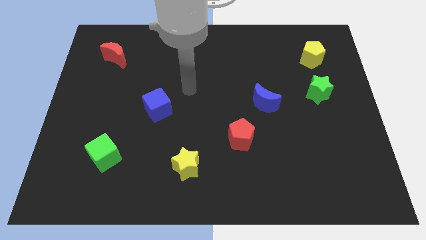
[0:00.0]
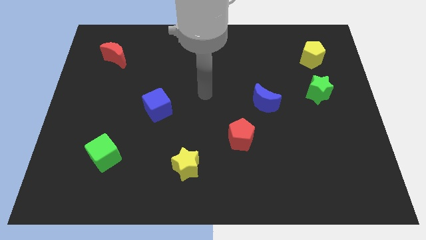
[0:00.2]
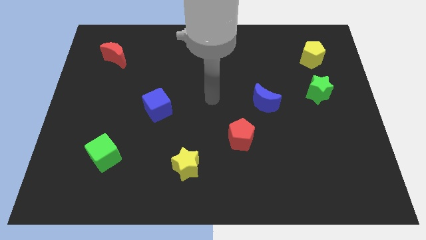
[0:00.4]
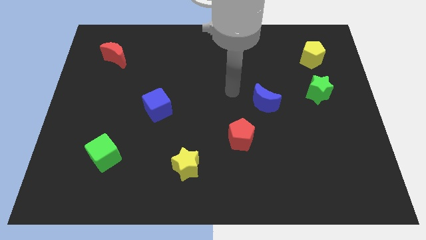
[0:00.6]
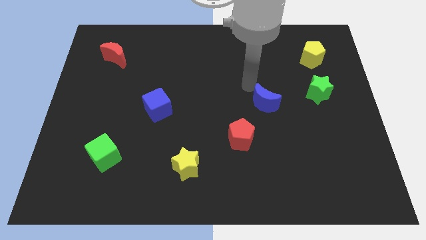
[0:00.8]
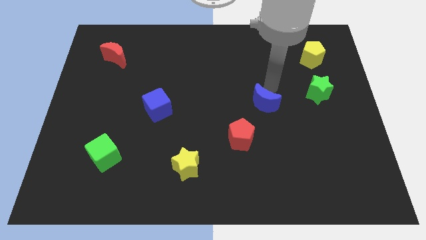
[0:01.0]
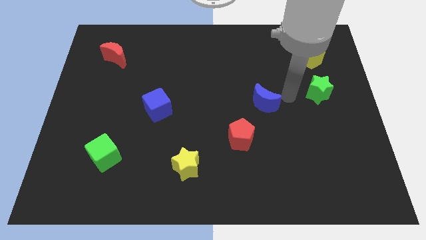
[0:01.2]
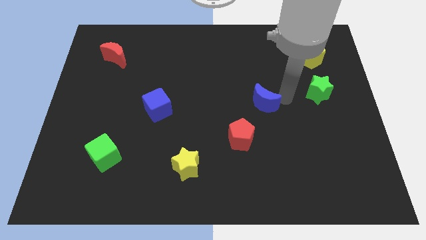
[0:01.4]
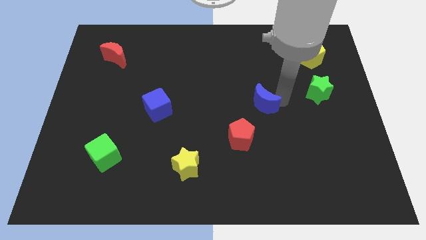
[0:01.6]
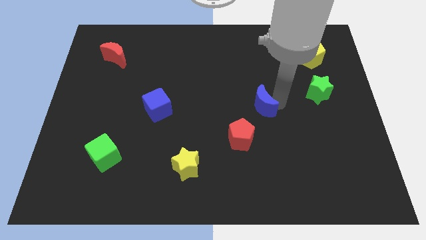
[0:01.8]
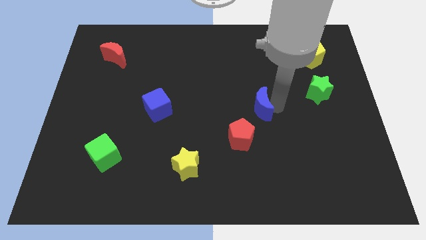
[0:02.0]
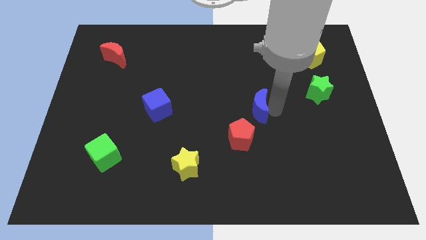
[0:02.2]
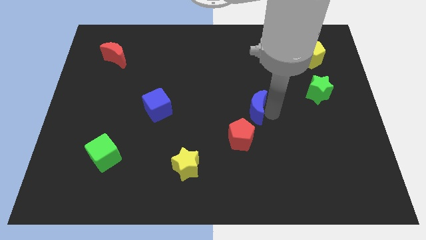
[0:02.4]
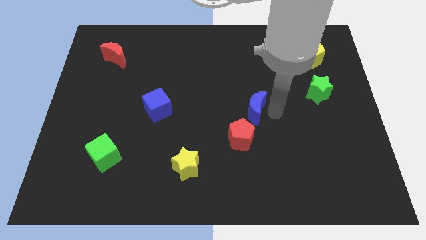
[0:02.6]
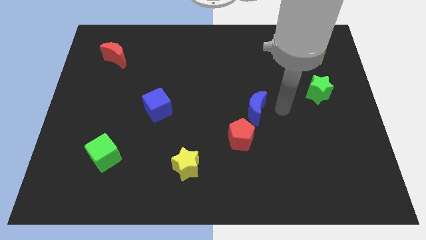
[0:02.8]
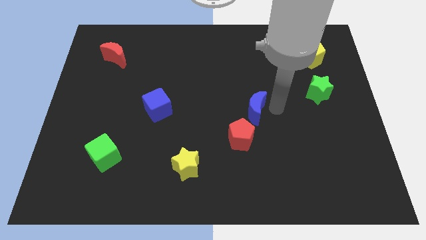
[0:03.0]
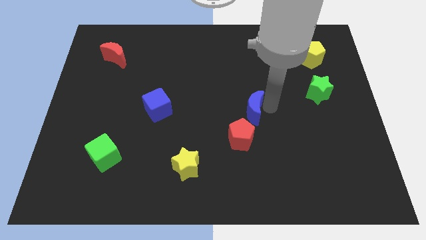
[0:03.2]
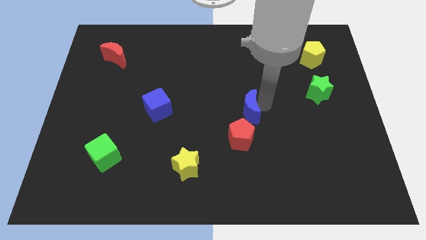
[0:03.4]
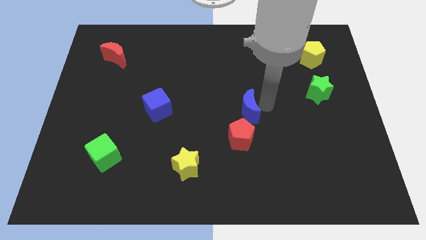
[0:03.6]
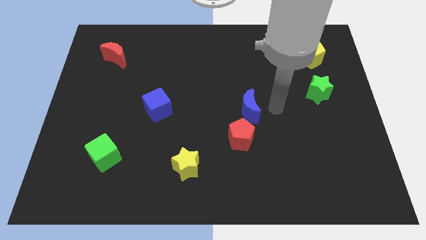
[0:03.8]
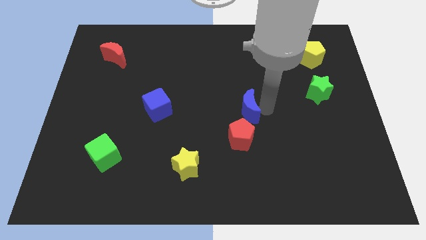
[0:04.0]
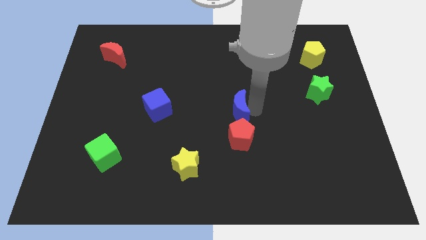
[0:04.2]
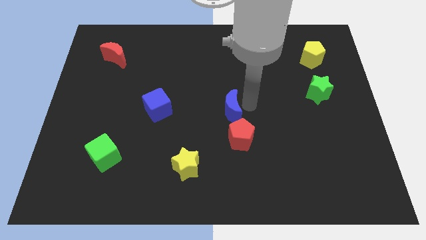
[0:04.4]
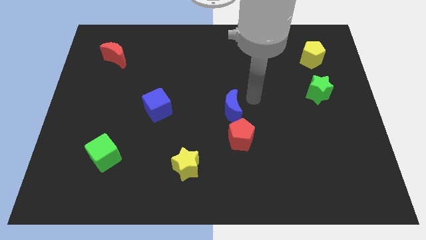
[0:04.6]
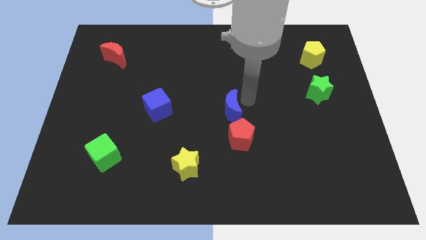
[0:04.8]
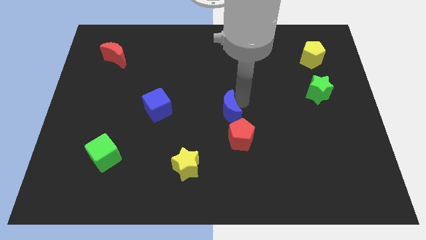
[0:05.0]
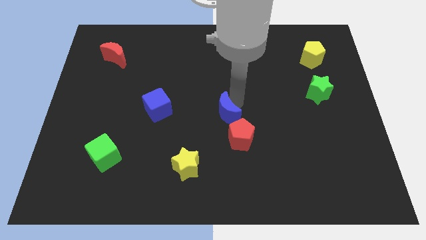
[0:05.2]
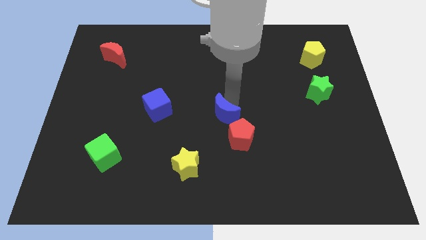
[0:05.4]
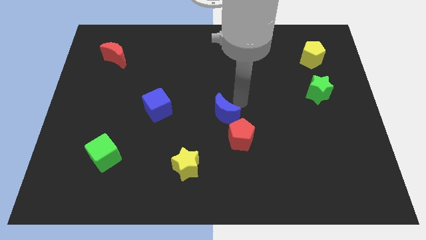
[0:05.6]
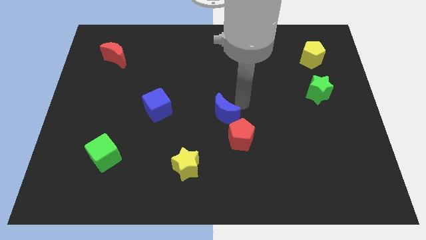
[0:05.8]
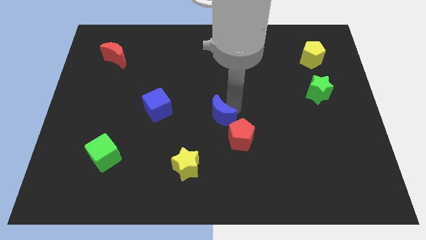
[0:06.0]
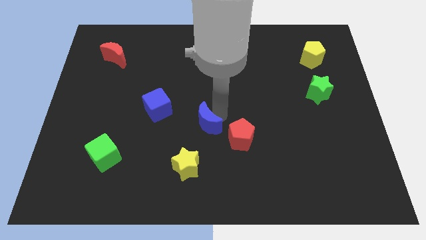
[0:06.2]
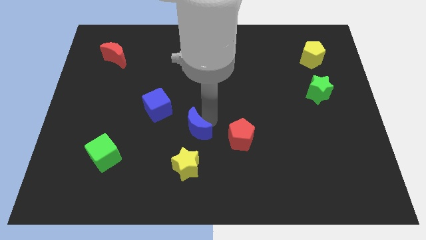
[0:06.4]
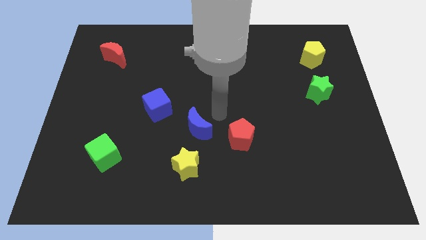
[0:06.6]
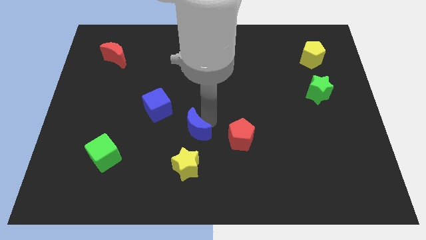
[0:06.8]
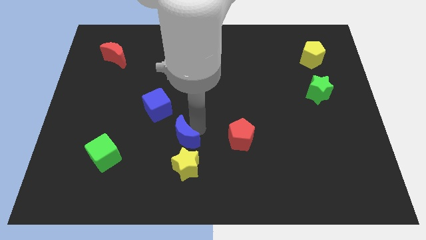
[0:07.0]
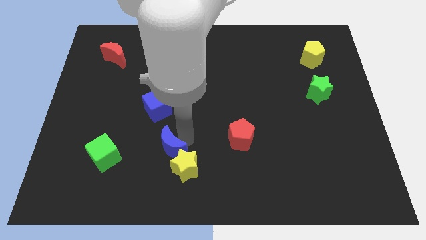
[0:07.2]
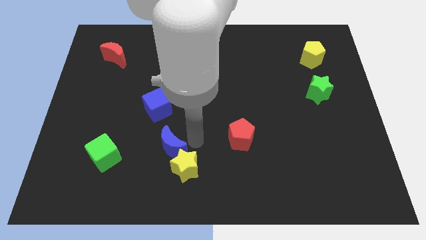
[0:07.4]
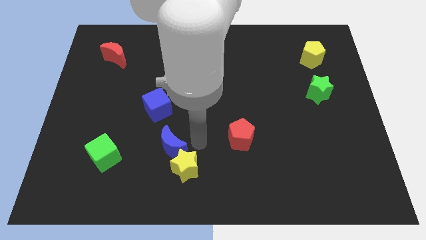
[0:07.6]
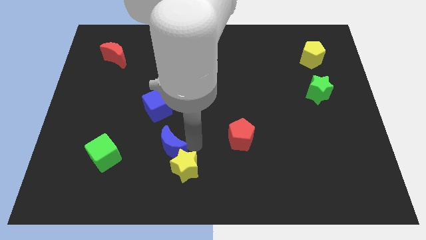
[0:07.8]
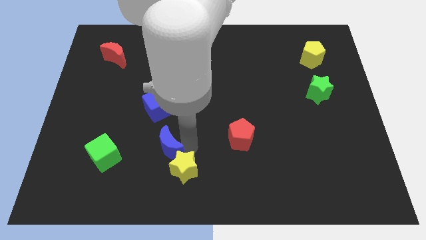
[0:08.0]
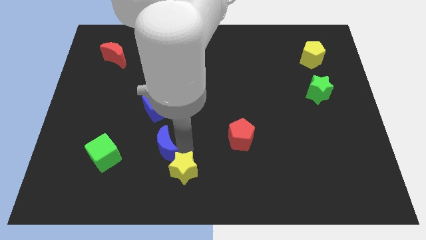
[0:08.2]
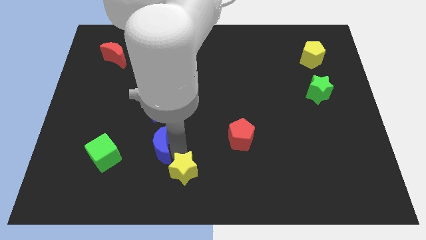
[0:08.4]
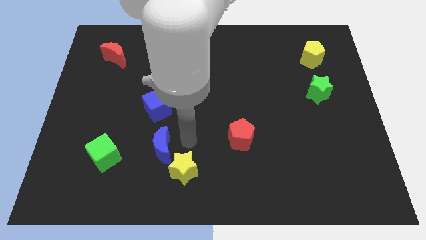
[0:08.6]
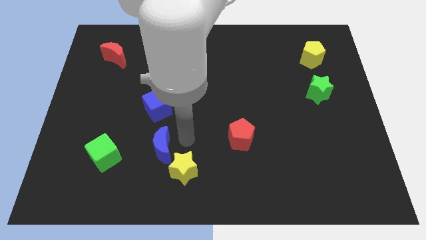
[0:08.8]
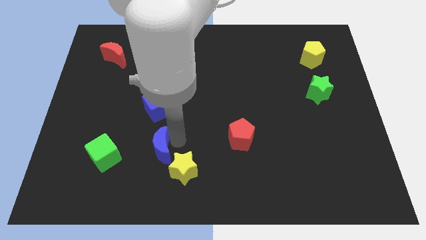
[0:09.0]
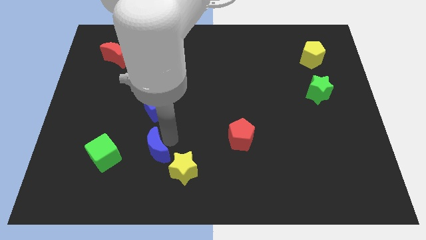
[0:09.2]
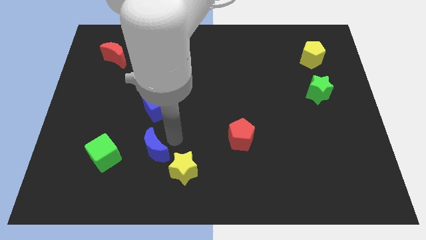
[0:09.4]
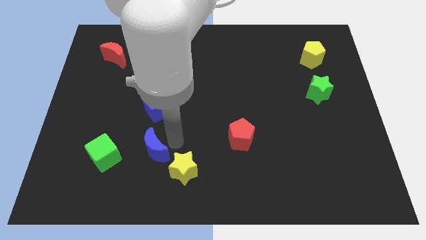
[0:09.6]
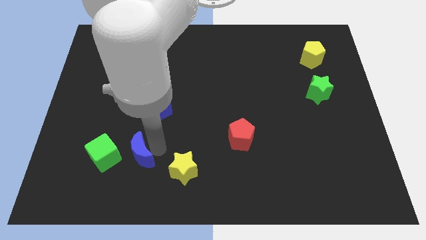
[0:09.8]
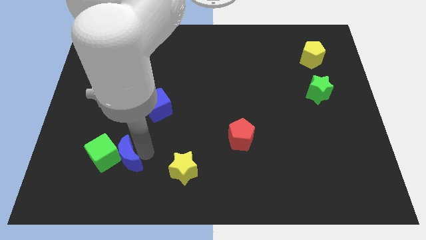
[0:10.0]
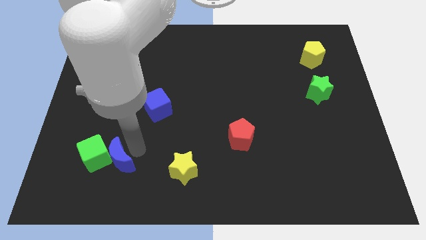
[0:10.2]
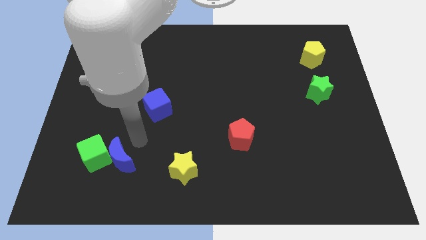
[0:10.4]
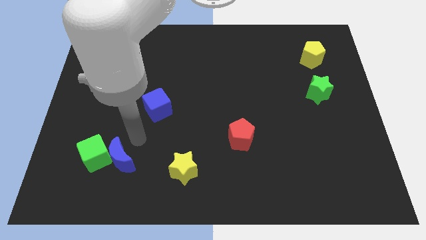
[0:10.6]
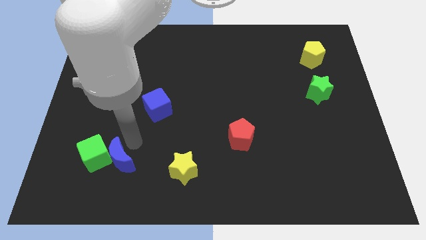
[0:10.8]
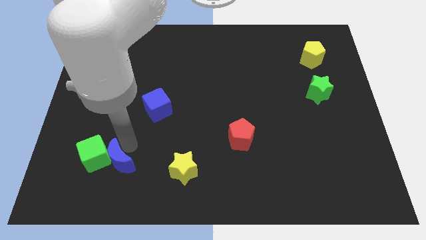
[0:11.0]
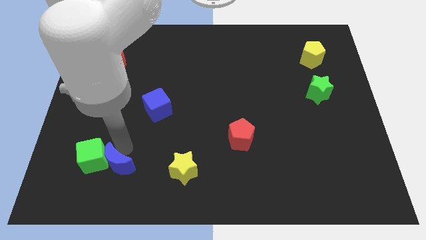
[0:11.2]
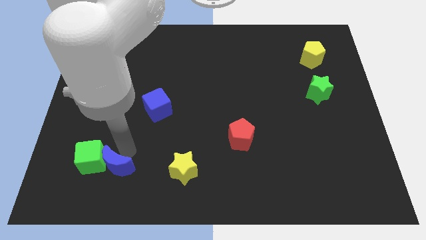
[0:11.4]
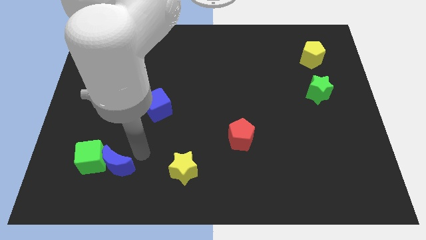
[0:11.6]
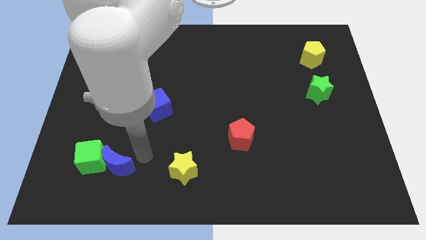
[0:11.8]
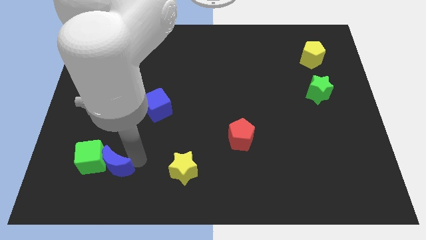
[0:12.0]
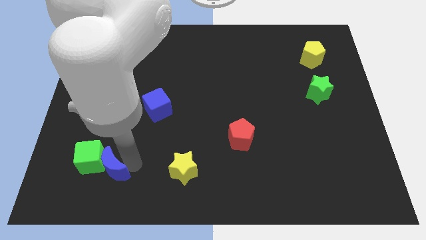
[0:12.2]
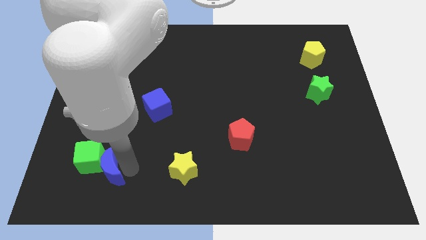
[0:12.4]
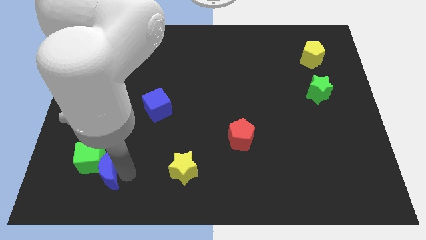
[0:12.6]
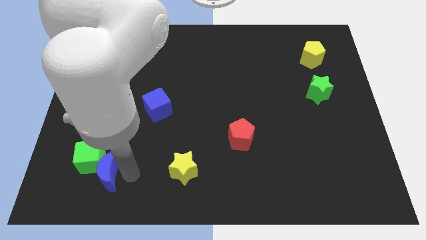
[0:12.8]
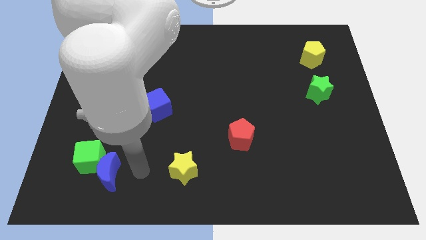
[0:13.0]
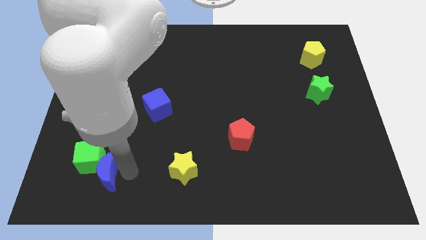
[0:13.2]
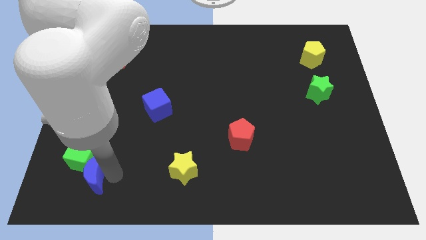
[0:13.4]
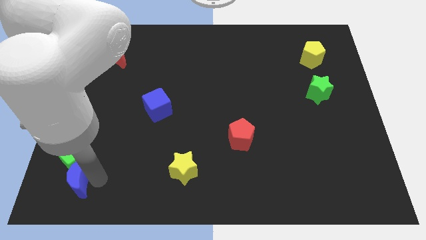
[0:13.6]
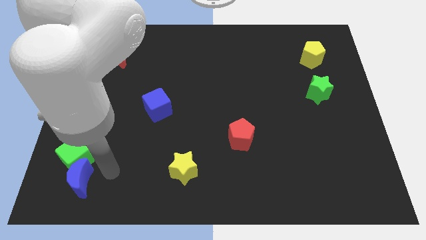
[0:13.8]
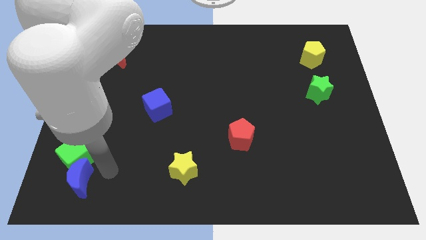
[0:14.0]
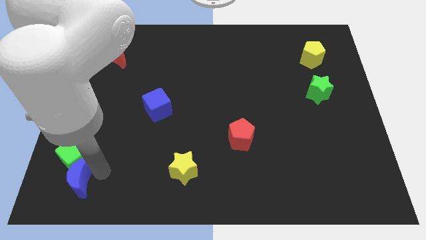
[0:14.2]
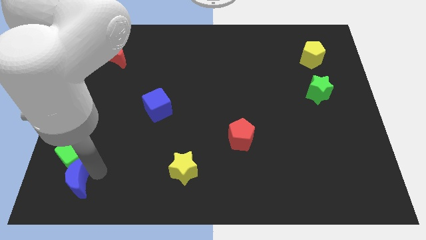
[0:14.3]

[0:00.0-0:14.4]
slide the blue moon to the bottom left of the board
